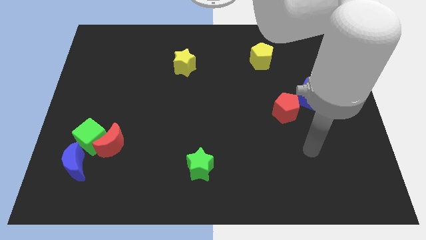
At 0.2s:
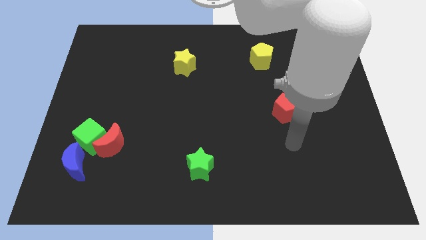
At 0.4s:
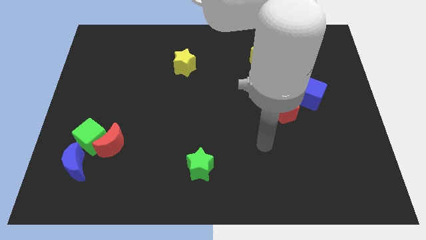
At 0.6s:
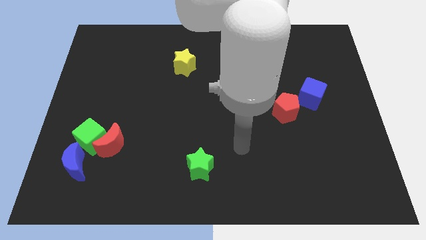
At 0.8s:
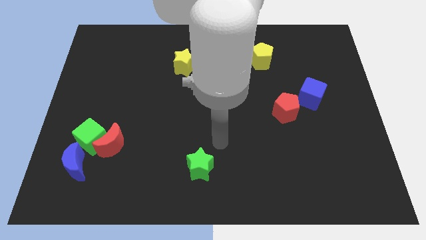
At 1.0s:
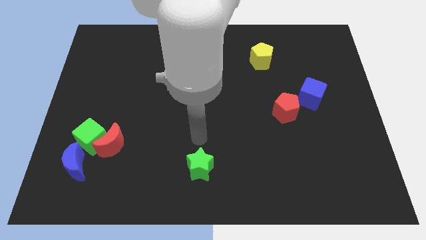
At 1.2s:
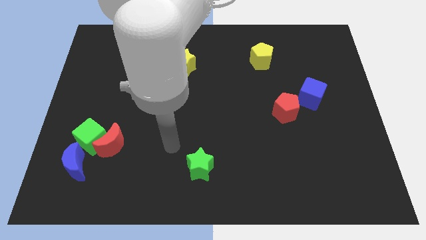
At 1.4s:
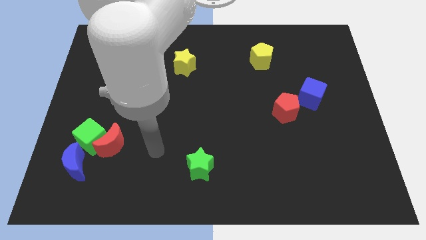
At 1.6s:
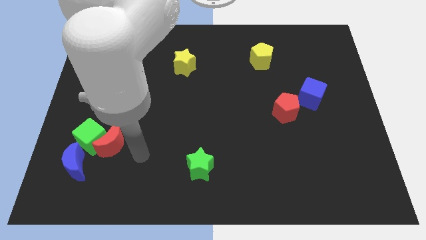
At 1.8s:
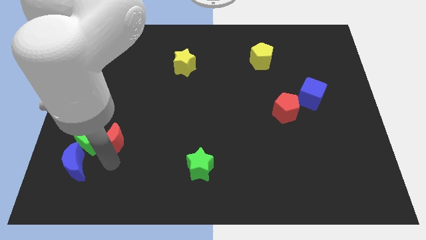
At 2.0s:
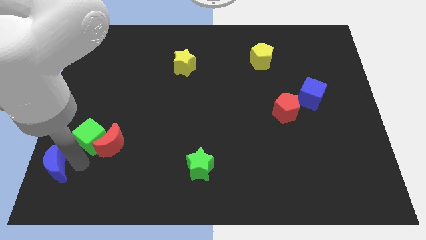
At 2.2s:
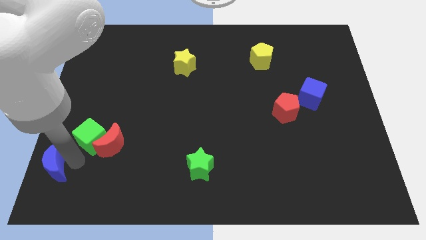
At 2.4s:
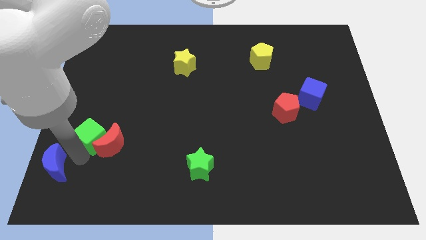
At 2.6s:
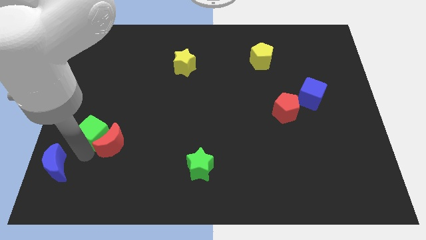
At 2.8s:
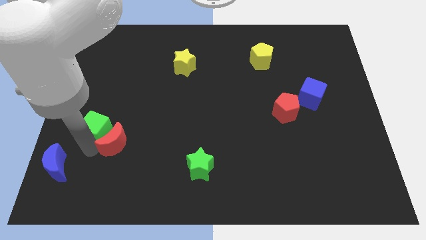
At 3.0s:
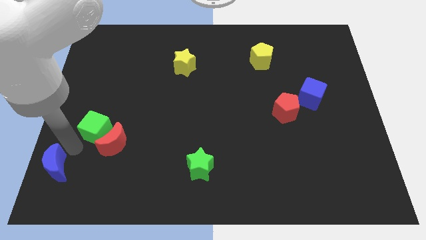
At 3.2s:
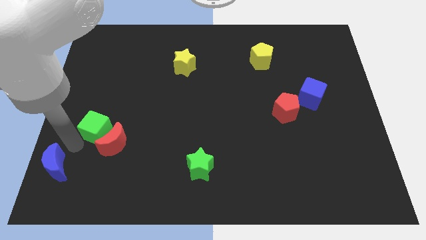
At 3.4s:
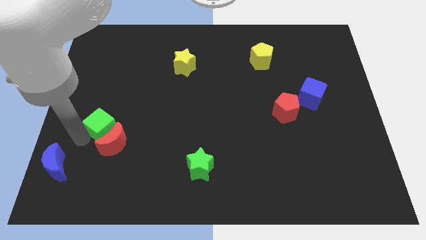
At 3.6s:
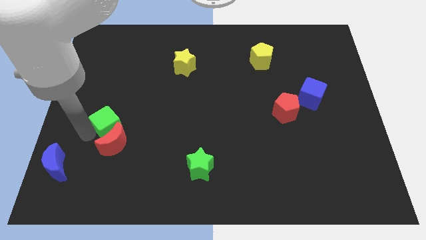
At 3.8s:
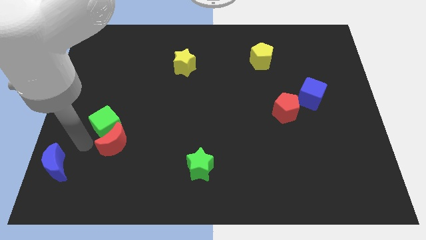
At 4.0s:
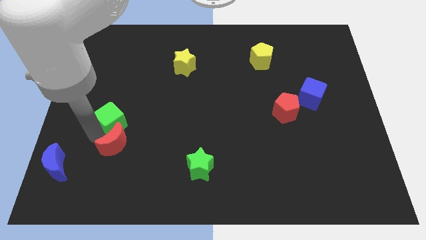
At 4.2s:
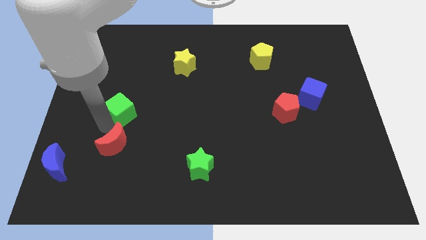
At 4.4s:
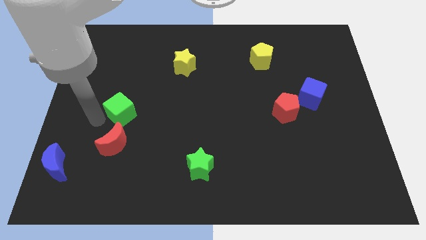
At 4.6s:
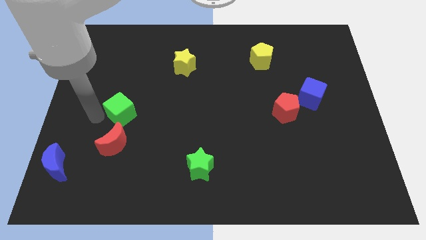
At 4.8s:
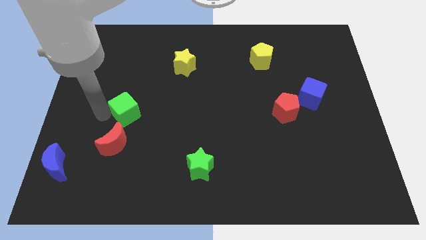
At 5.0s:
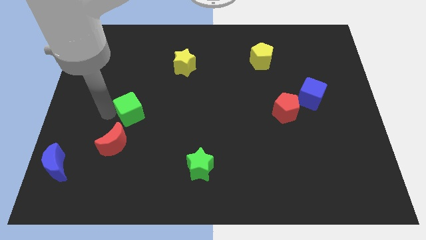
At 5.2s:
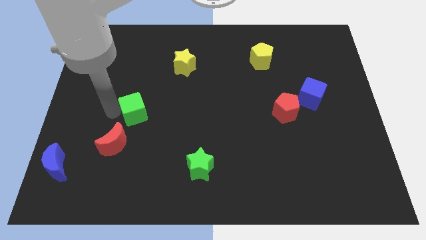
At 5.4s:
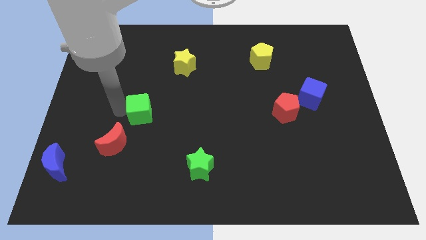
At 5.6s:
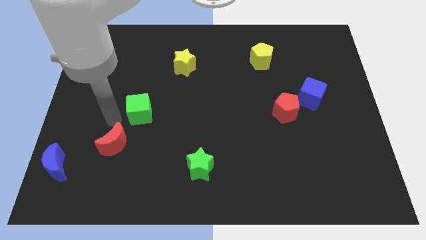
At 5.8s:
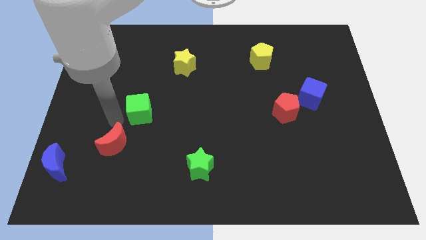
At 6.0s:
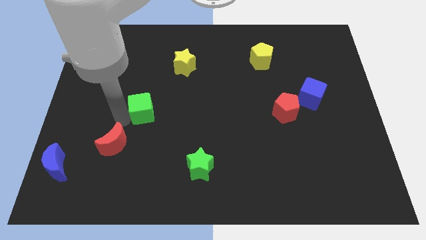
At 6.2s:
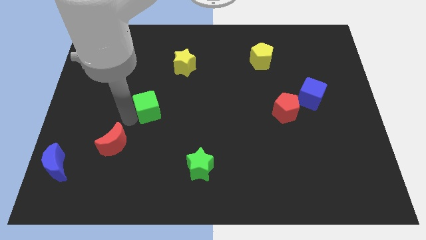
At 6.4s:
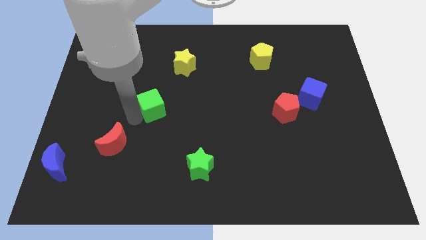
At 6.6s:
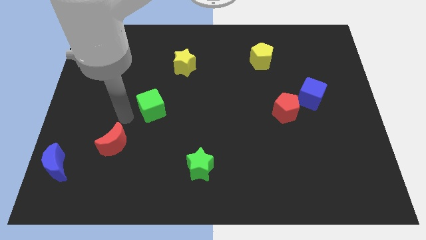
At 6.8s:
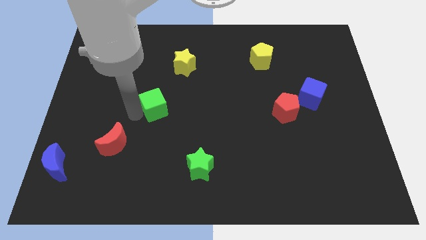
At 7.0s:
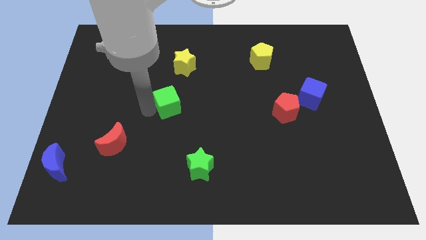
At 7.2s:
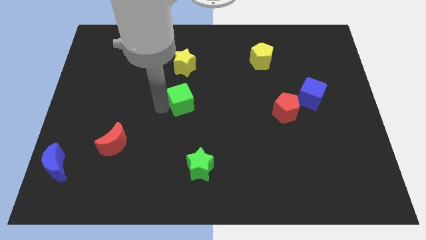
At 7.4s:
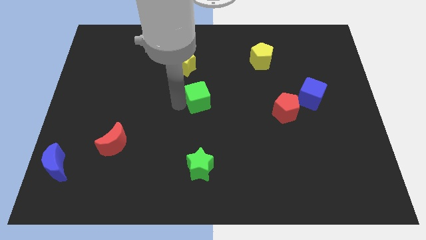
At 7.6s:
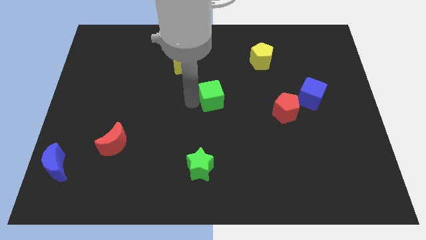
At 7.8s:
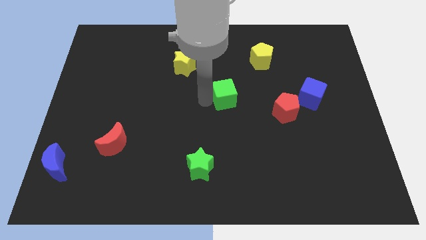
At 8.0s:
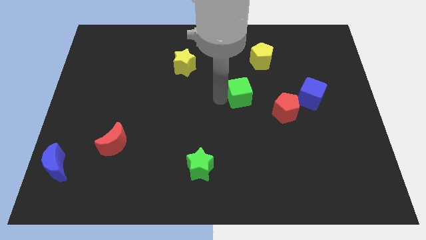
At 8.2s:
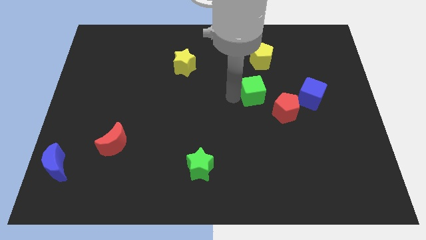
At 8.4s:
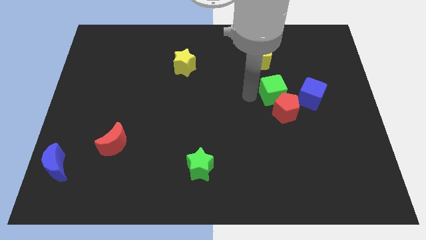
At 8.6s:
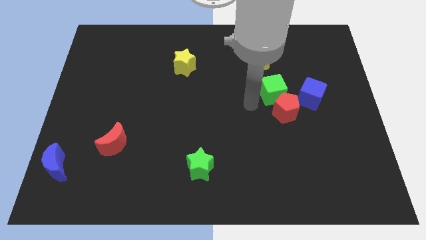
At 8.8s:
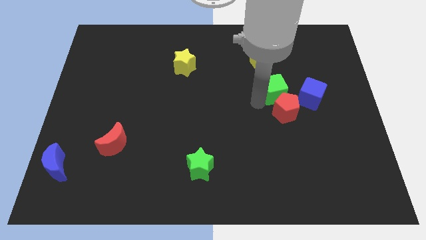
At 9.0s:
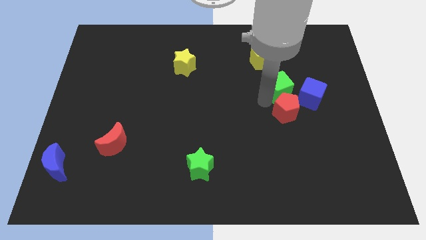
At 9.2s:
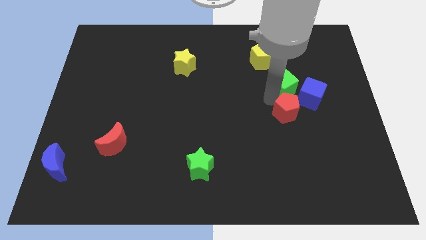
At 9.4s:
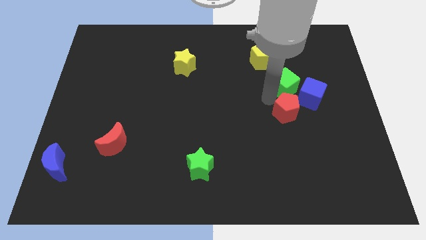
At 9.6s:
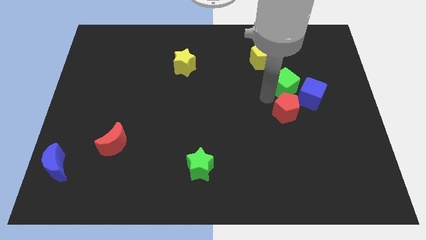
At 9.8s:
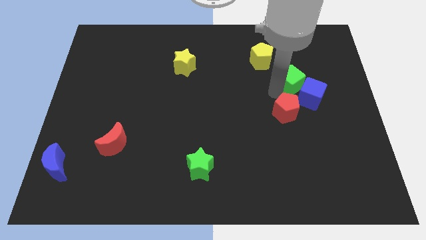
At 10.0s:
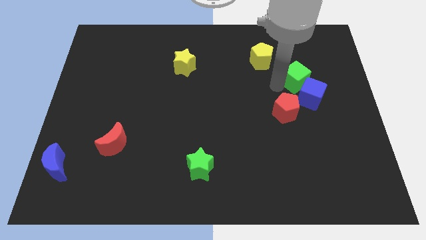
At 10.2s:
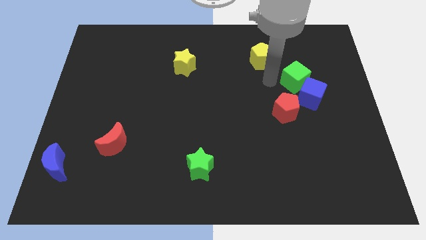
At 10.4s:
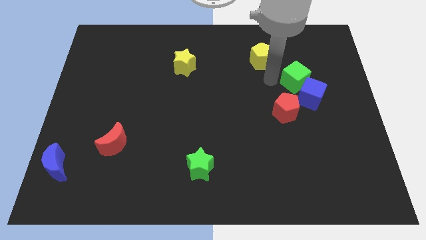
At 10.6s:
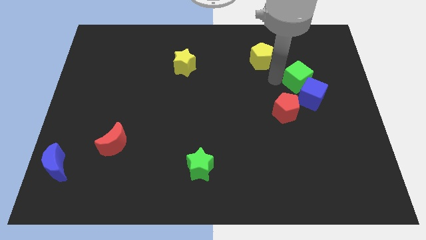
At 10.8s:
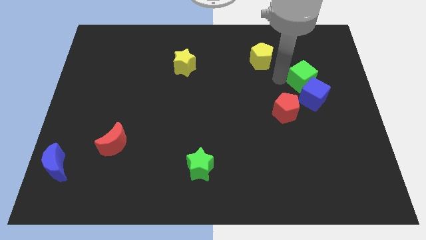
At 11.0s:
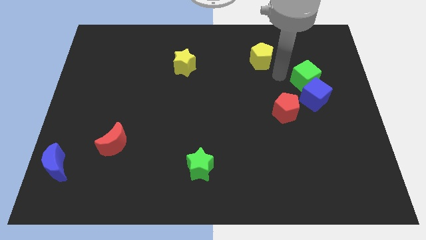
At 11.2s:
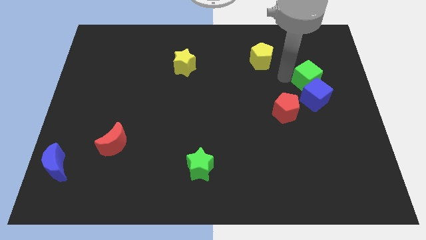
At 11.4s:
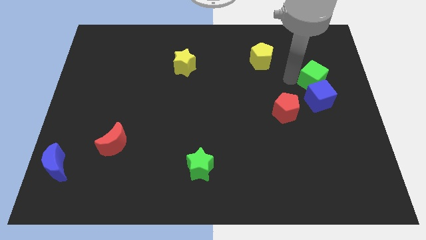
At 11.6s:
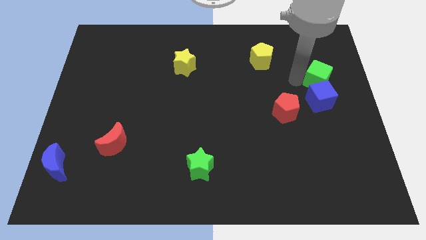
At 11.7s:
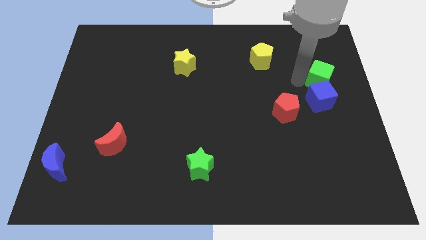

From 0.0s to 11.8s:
put the green cube to the right side of the board
